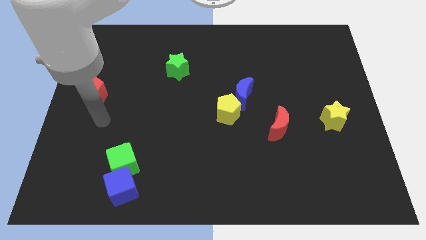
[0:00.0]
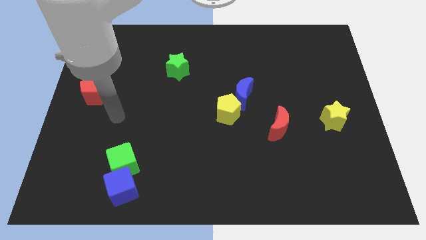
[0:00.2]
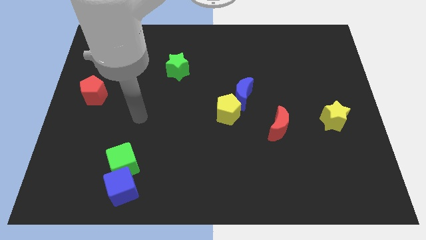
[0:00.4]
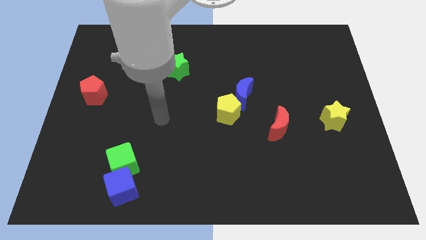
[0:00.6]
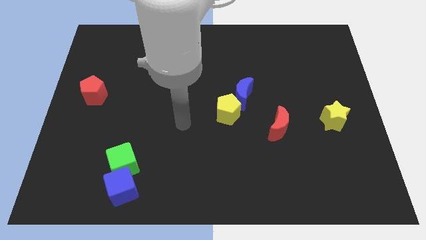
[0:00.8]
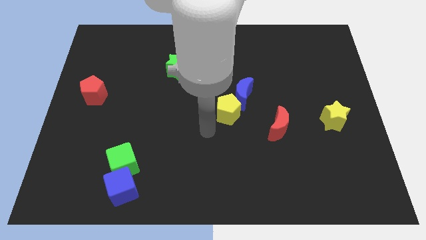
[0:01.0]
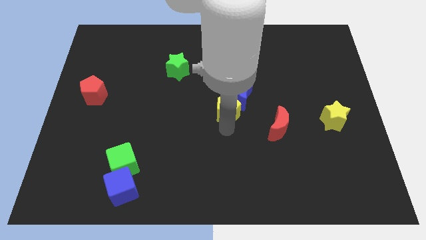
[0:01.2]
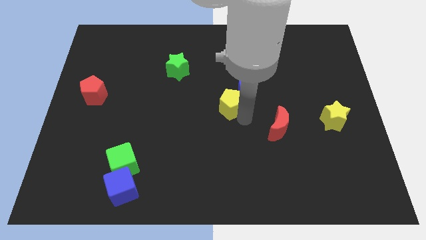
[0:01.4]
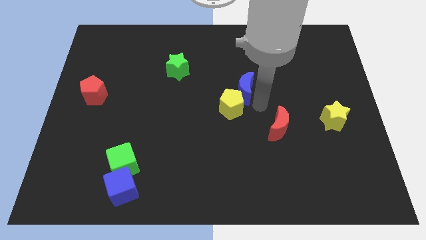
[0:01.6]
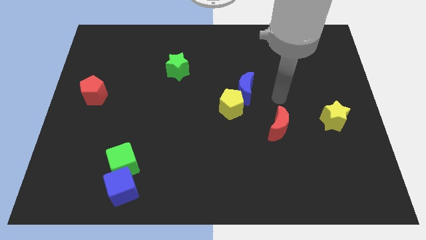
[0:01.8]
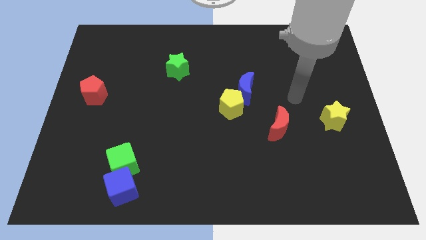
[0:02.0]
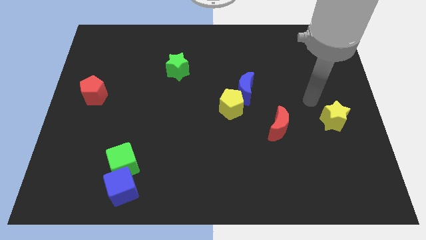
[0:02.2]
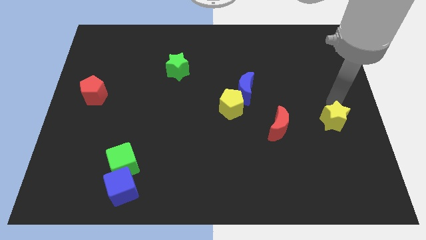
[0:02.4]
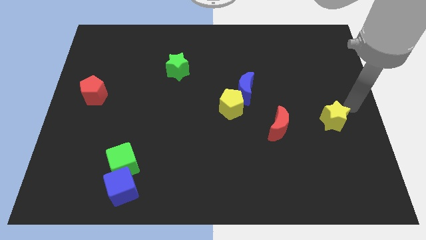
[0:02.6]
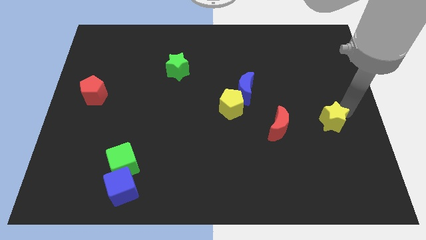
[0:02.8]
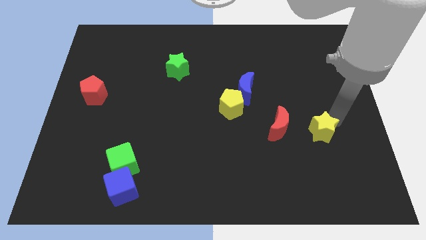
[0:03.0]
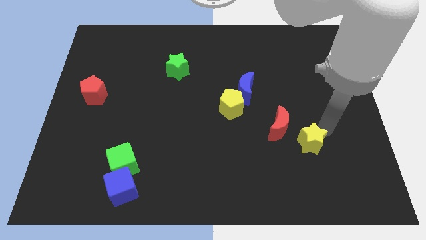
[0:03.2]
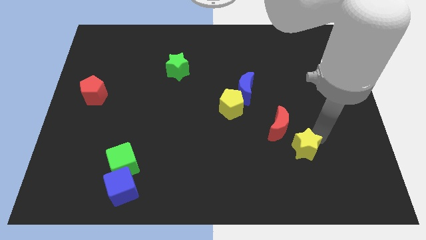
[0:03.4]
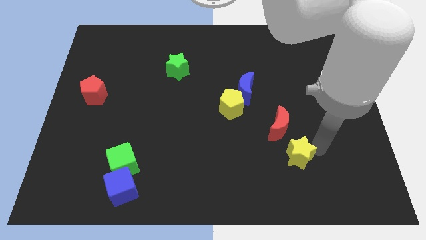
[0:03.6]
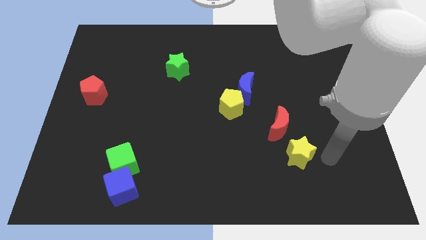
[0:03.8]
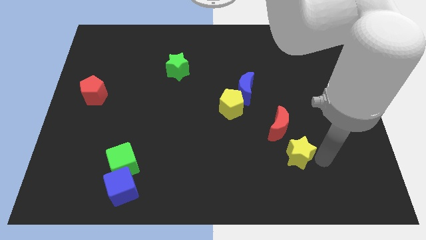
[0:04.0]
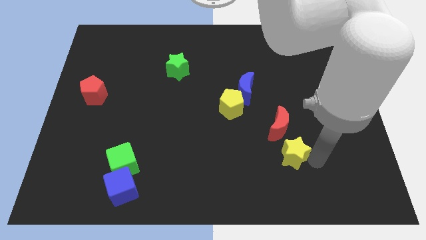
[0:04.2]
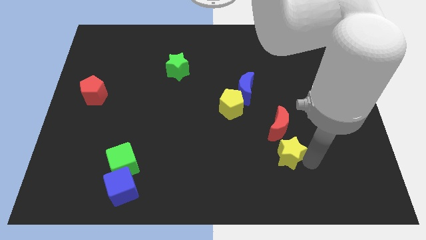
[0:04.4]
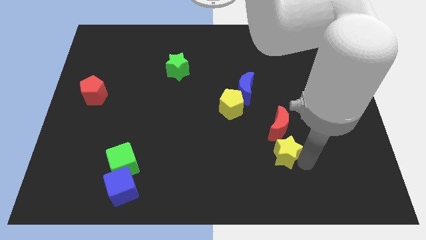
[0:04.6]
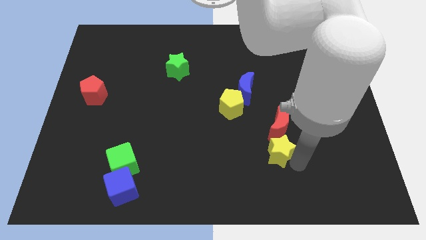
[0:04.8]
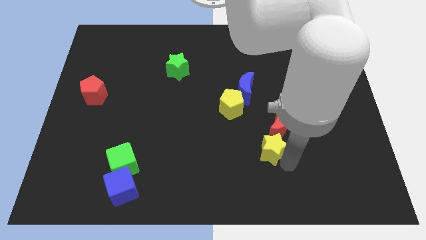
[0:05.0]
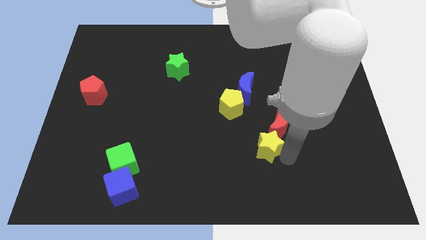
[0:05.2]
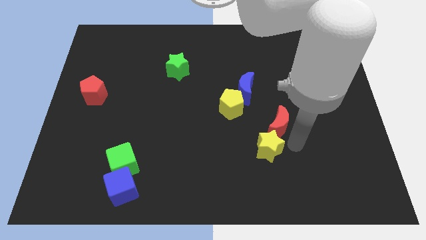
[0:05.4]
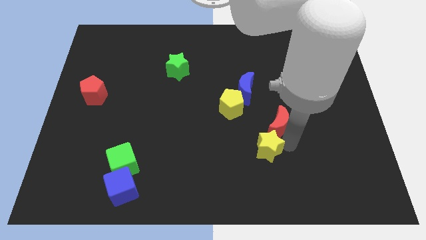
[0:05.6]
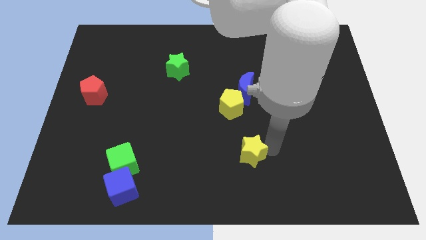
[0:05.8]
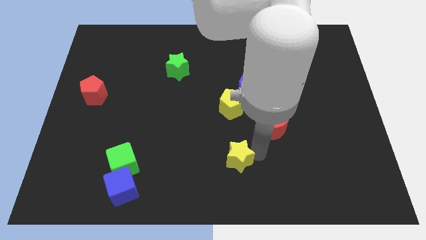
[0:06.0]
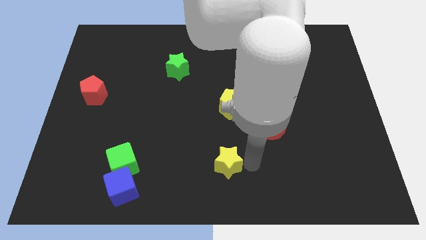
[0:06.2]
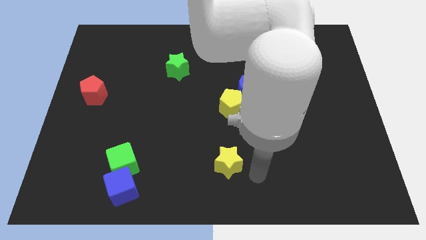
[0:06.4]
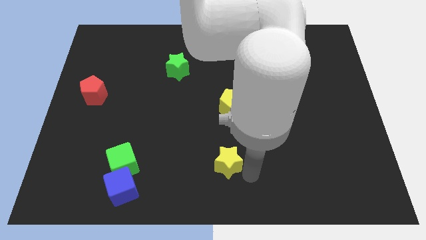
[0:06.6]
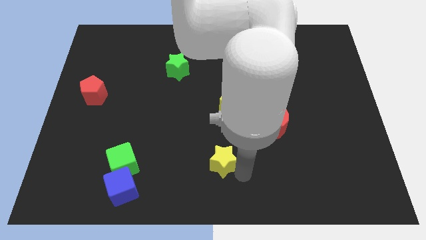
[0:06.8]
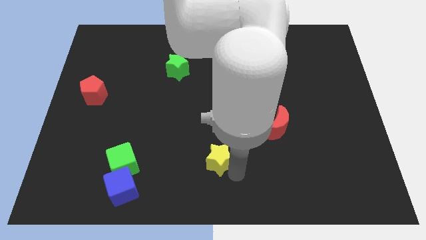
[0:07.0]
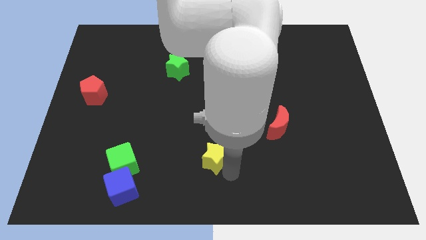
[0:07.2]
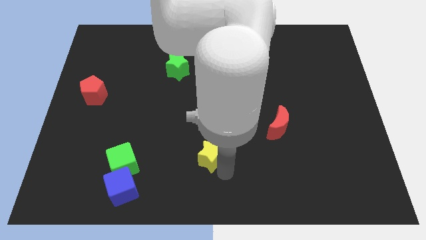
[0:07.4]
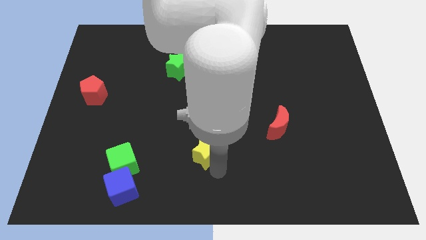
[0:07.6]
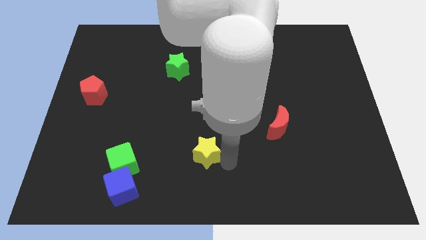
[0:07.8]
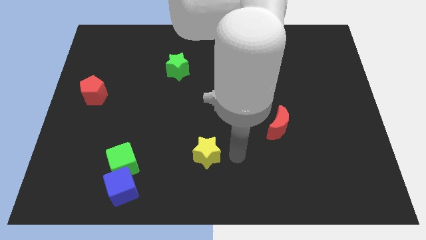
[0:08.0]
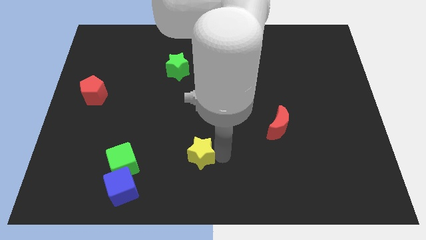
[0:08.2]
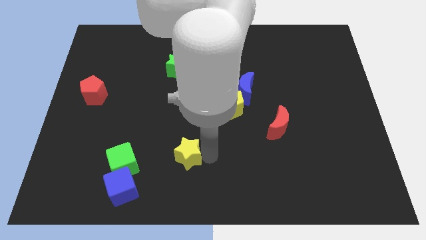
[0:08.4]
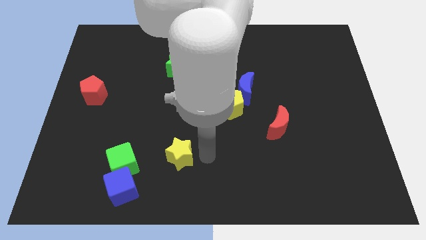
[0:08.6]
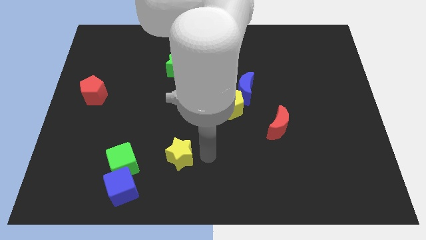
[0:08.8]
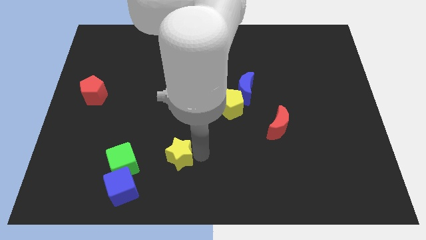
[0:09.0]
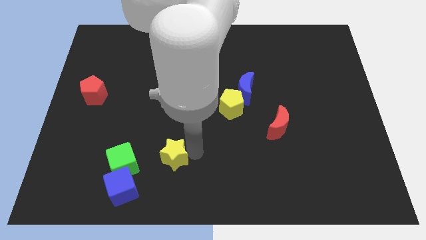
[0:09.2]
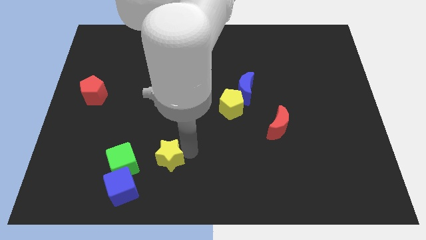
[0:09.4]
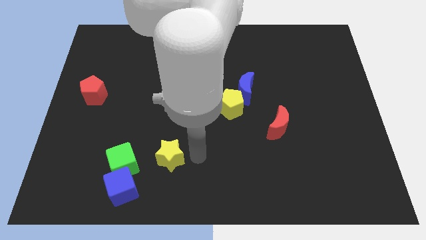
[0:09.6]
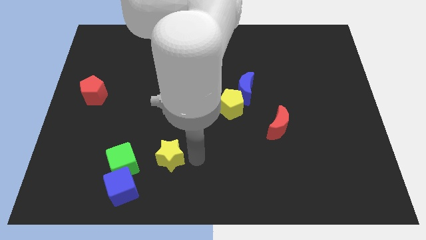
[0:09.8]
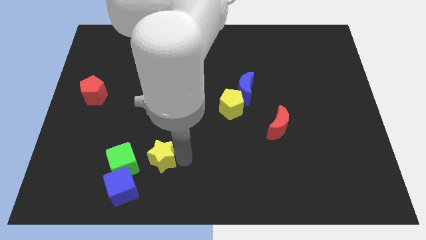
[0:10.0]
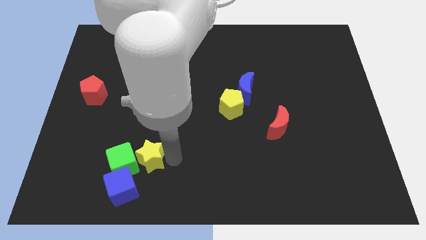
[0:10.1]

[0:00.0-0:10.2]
move the yellow star towards the green cube

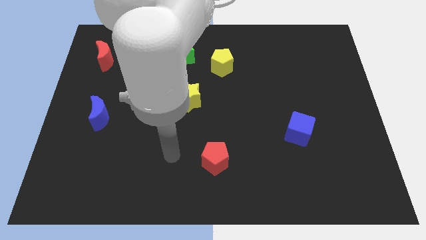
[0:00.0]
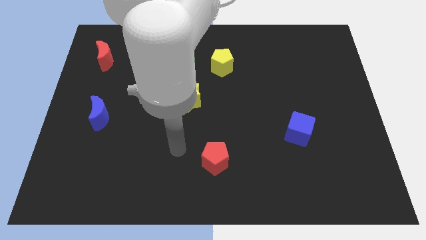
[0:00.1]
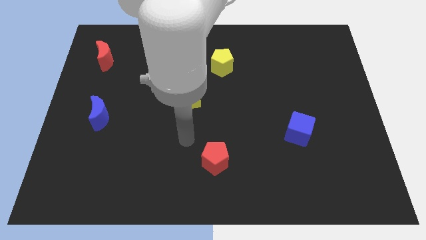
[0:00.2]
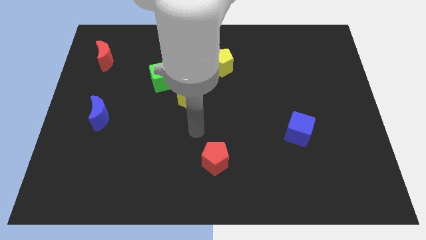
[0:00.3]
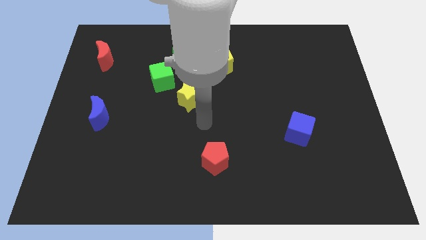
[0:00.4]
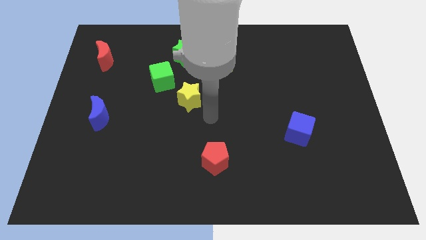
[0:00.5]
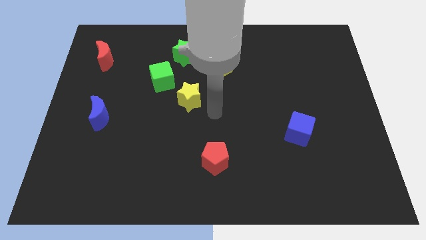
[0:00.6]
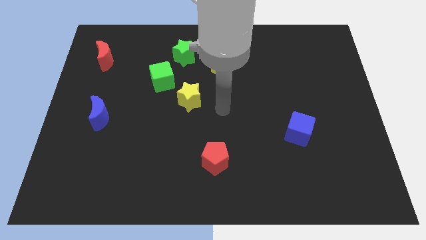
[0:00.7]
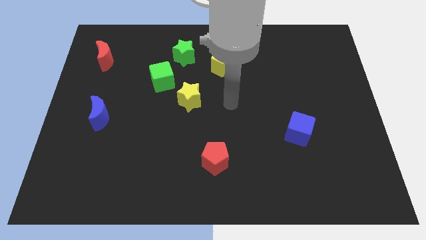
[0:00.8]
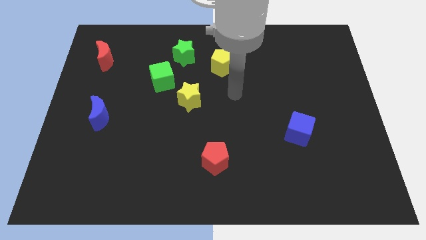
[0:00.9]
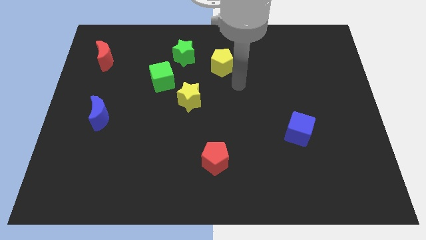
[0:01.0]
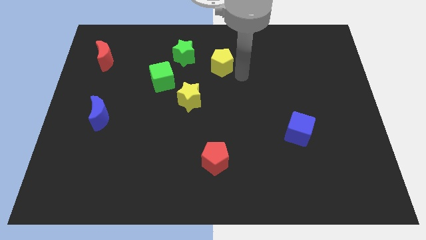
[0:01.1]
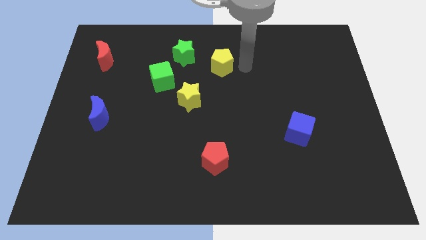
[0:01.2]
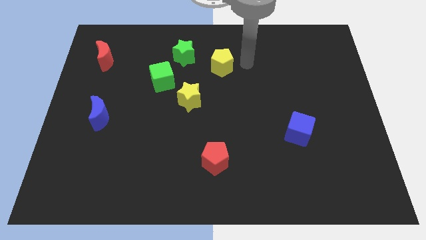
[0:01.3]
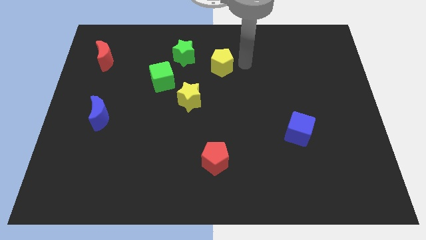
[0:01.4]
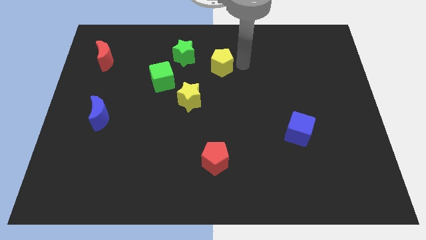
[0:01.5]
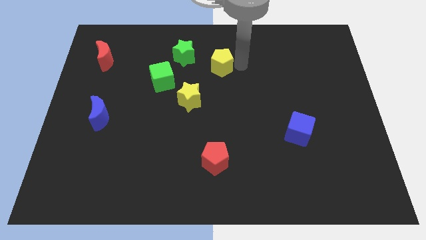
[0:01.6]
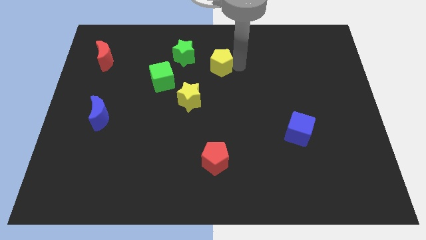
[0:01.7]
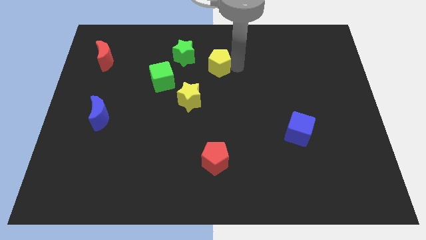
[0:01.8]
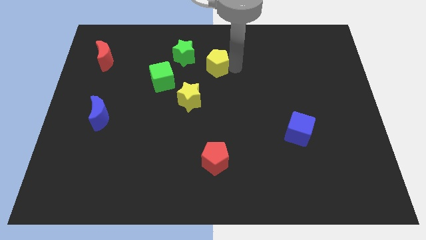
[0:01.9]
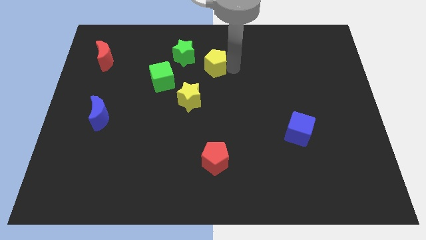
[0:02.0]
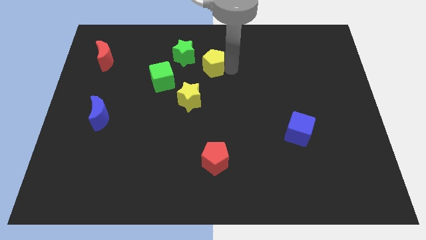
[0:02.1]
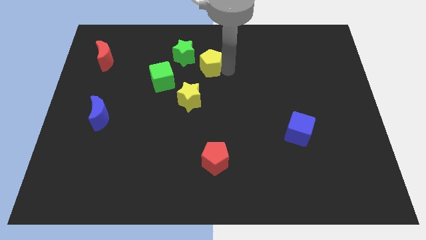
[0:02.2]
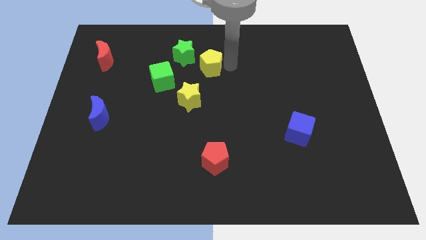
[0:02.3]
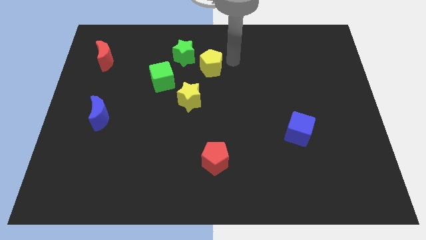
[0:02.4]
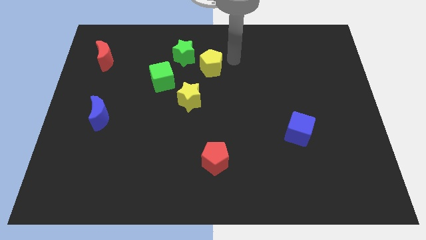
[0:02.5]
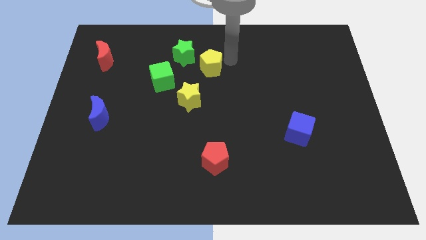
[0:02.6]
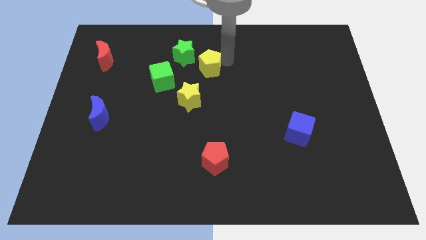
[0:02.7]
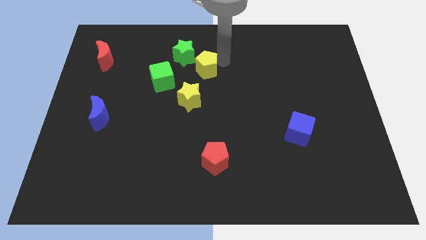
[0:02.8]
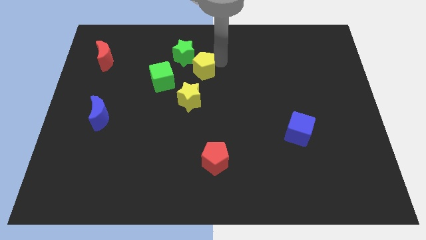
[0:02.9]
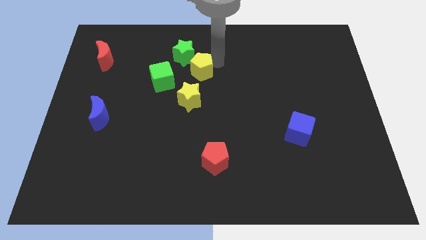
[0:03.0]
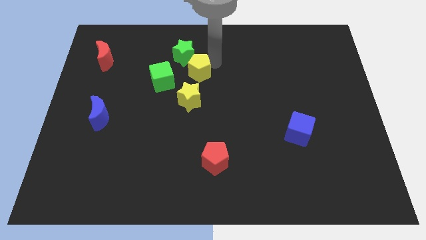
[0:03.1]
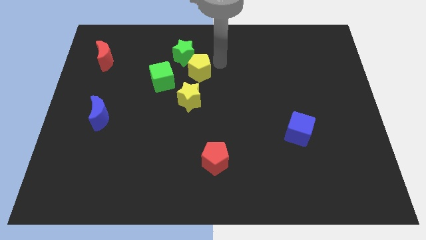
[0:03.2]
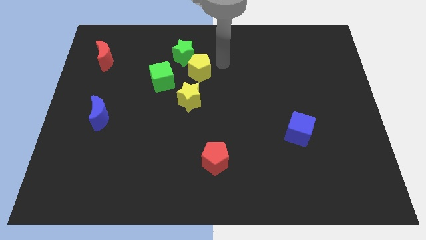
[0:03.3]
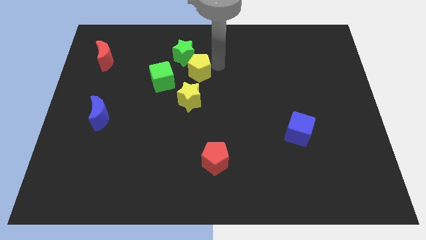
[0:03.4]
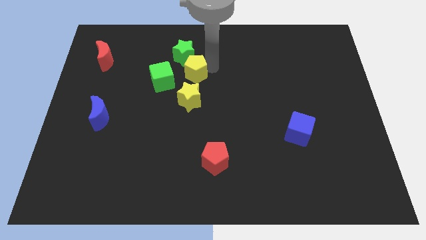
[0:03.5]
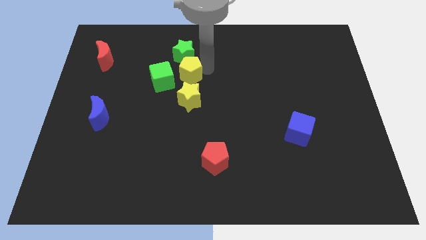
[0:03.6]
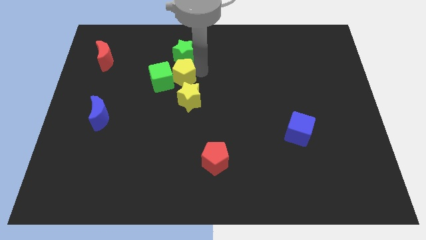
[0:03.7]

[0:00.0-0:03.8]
push the yellow pentagon towards the green cube
